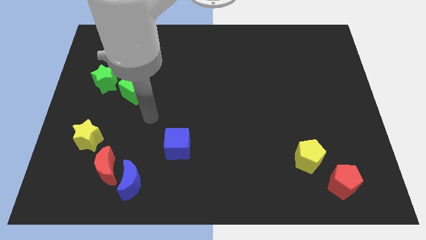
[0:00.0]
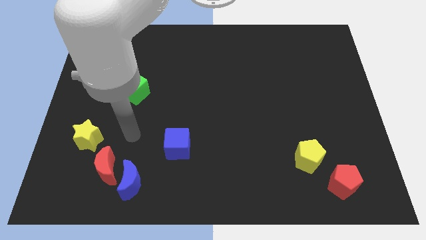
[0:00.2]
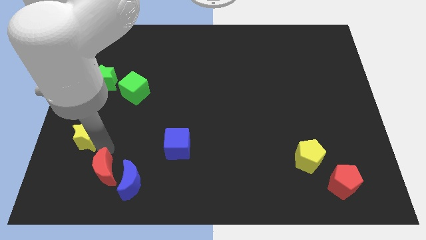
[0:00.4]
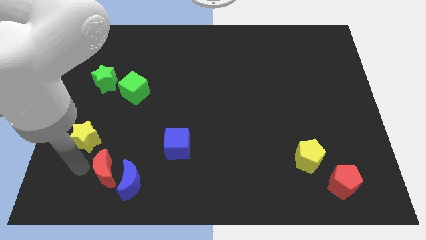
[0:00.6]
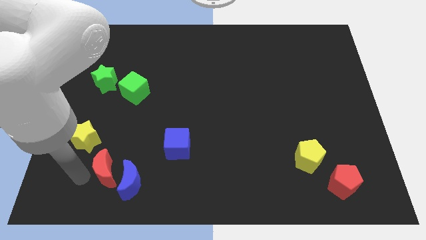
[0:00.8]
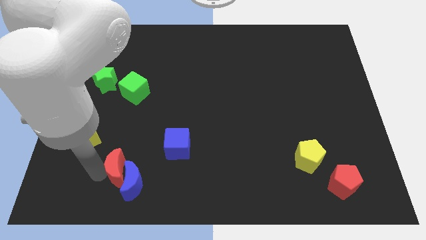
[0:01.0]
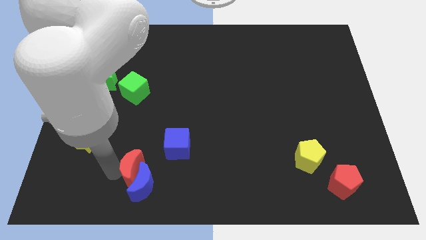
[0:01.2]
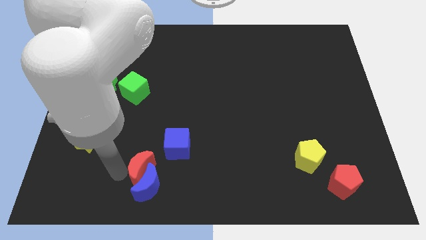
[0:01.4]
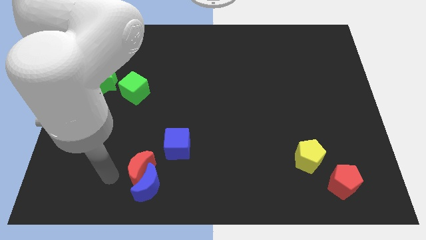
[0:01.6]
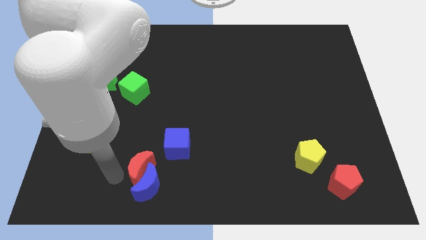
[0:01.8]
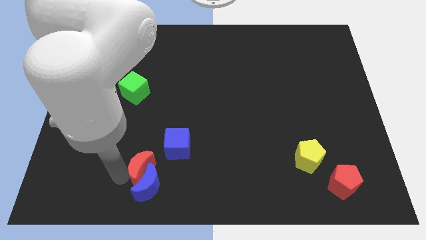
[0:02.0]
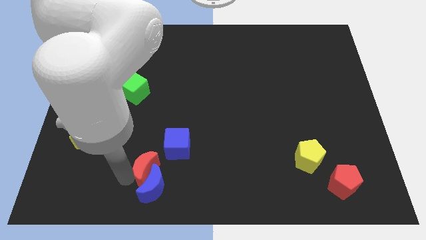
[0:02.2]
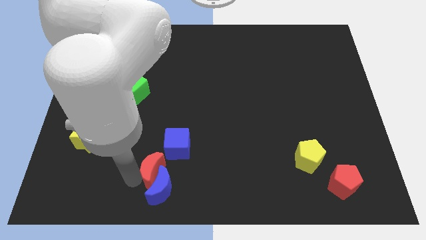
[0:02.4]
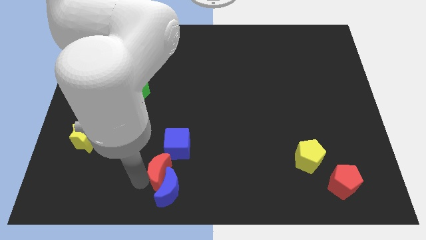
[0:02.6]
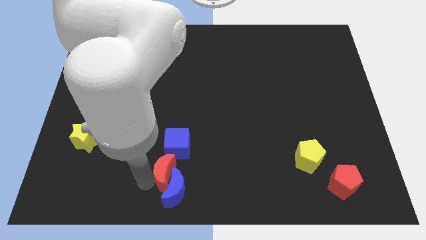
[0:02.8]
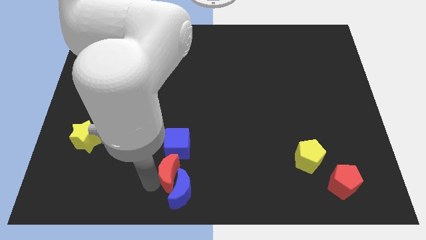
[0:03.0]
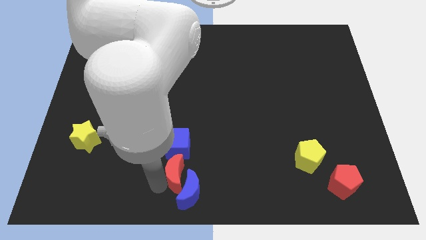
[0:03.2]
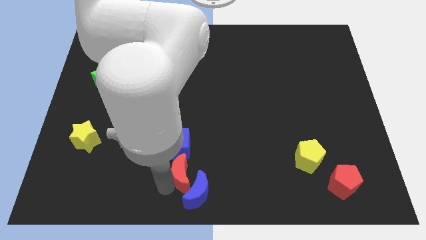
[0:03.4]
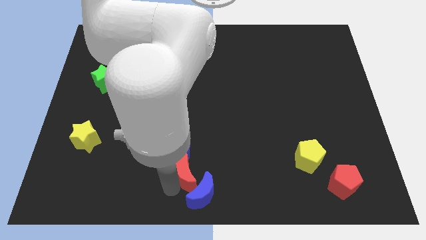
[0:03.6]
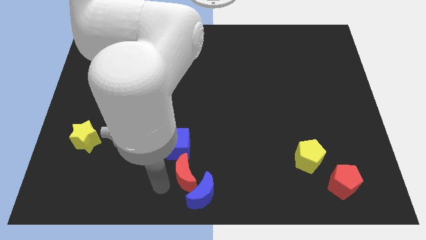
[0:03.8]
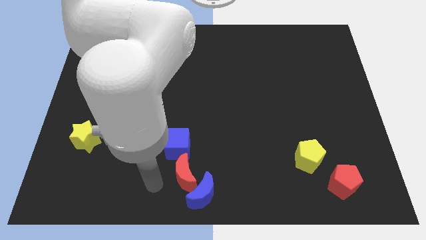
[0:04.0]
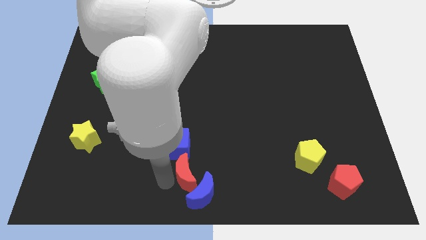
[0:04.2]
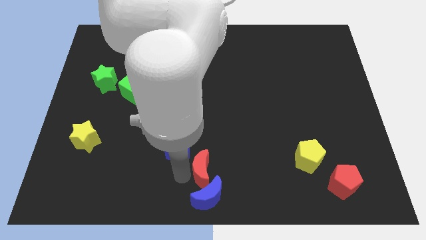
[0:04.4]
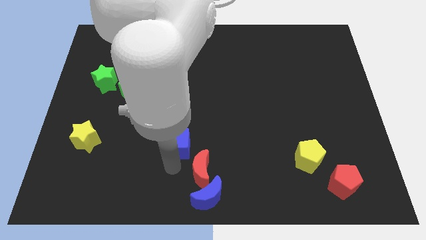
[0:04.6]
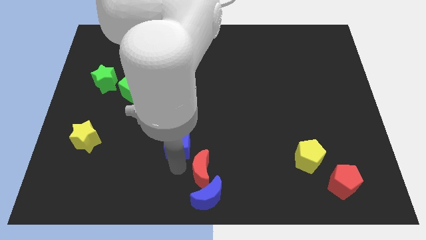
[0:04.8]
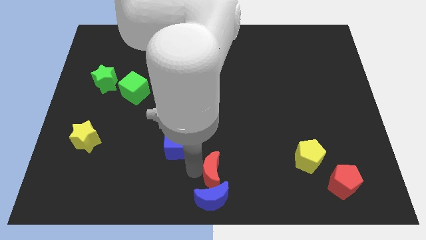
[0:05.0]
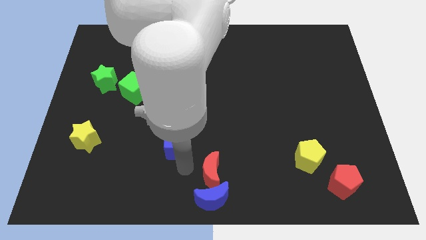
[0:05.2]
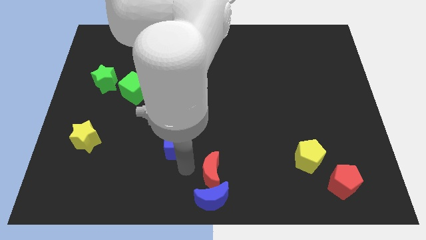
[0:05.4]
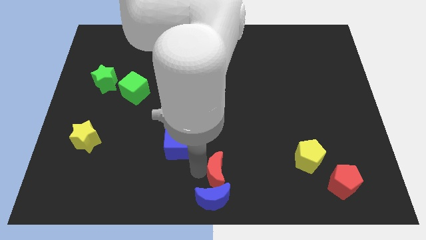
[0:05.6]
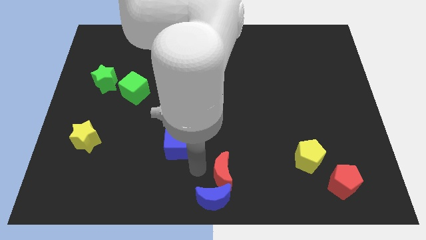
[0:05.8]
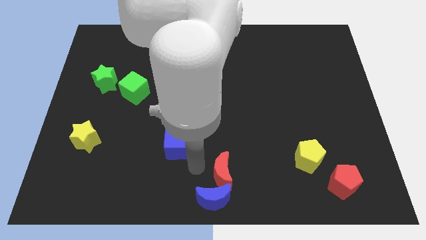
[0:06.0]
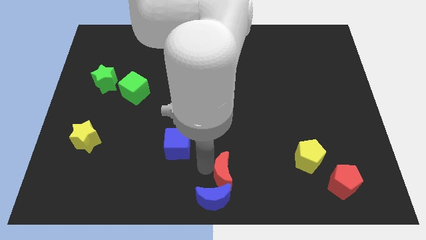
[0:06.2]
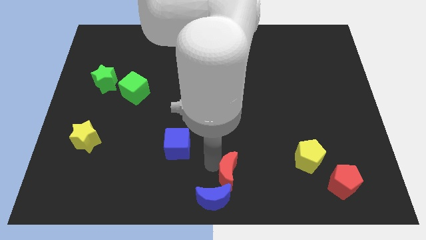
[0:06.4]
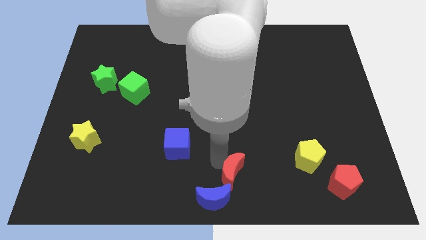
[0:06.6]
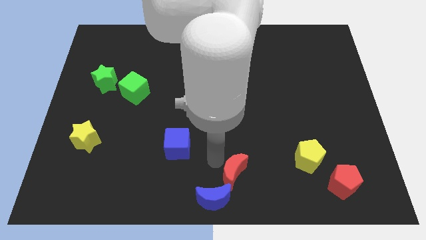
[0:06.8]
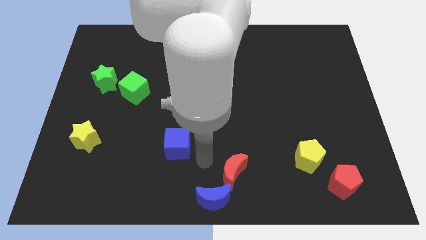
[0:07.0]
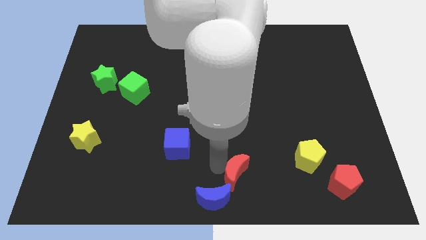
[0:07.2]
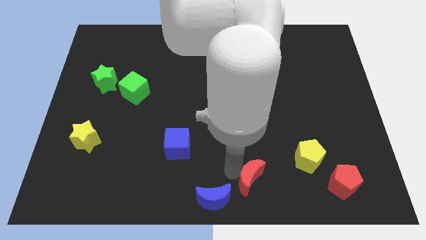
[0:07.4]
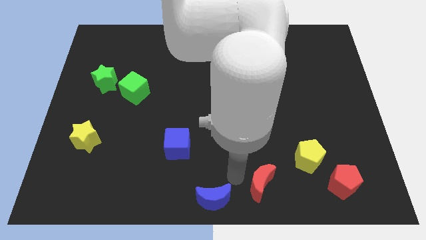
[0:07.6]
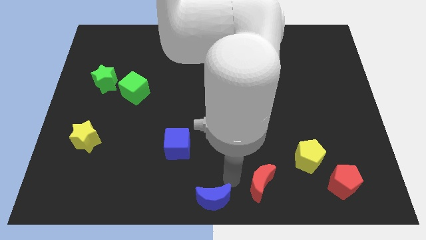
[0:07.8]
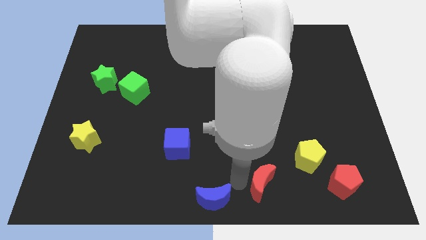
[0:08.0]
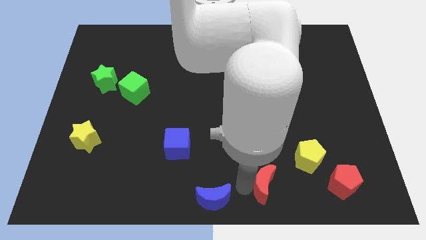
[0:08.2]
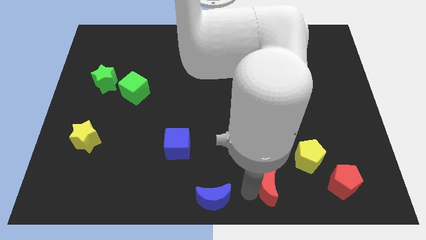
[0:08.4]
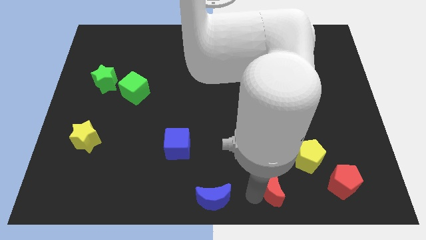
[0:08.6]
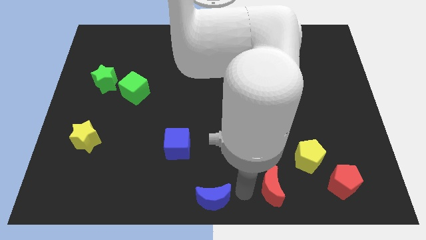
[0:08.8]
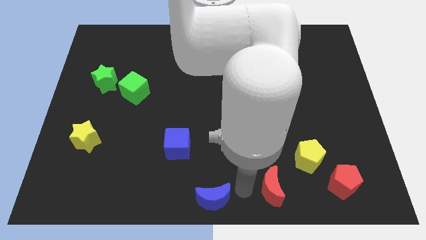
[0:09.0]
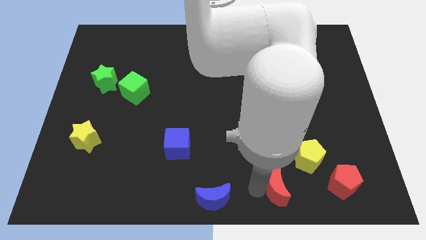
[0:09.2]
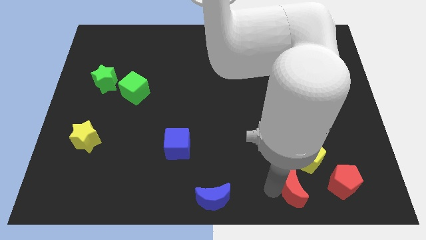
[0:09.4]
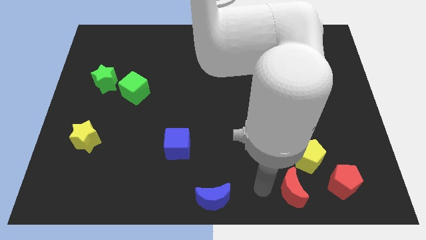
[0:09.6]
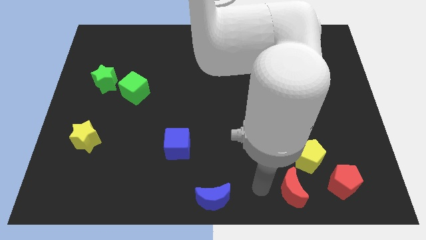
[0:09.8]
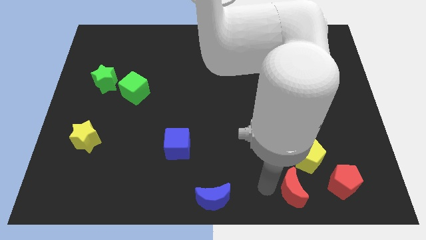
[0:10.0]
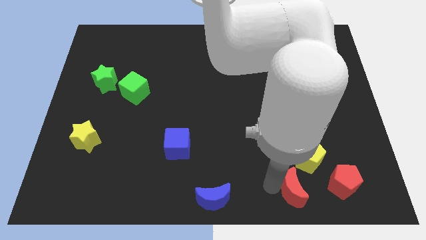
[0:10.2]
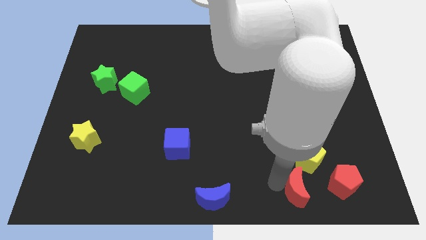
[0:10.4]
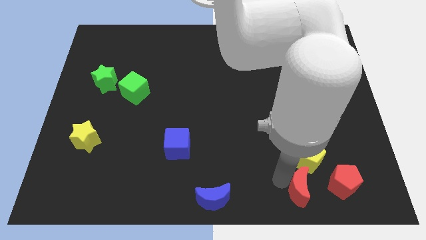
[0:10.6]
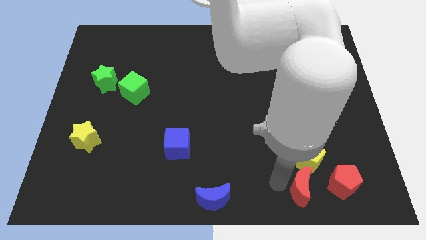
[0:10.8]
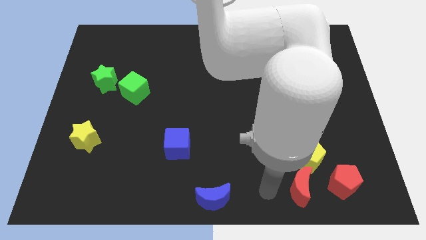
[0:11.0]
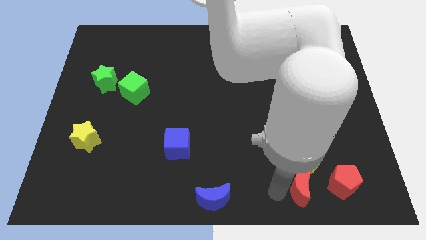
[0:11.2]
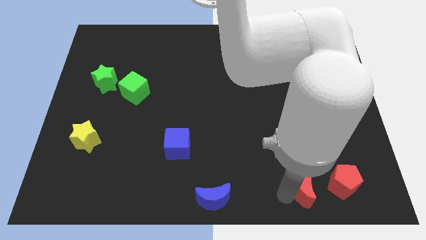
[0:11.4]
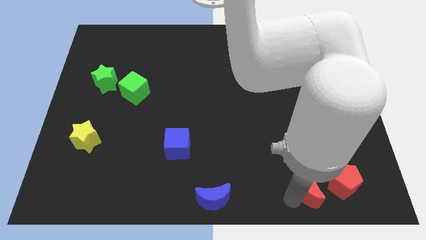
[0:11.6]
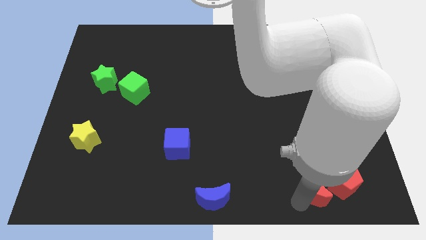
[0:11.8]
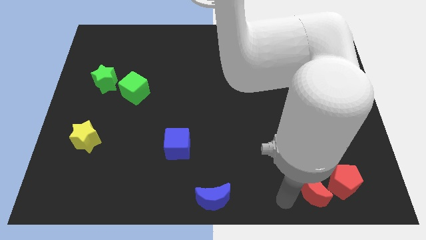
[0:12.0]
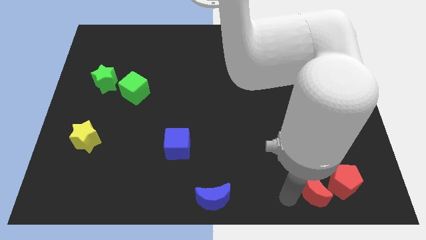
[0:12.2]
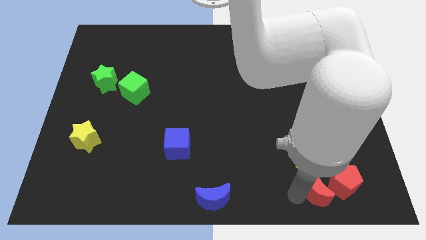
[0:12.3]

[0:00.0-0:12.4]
put the red moon next to the red pentagon

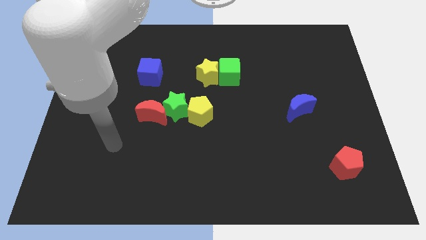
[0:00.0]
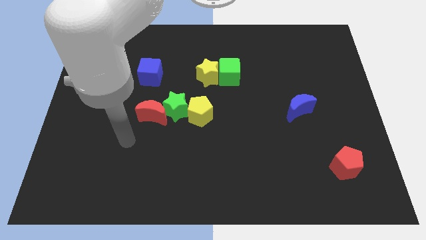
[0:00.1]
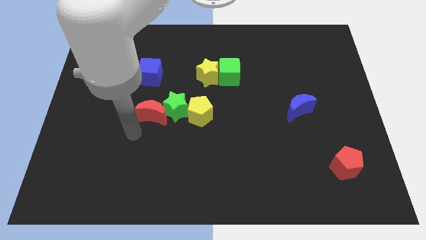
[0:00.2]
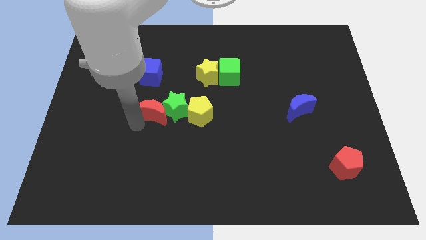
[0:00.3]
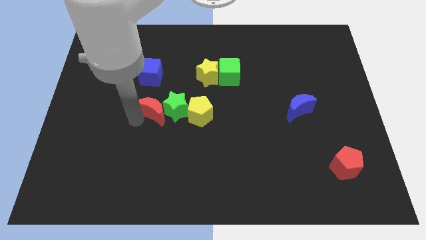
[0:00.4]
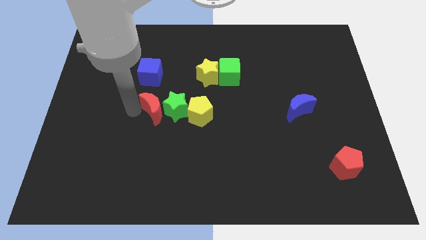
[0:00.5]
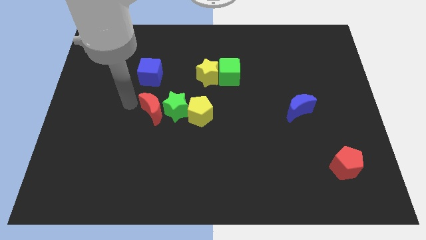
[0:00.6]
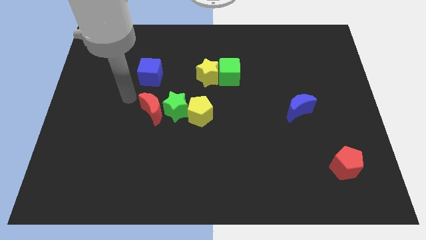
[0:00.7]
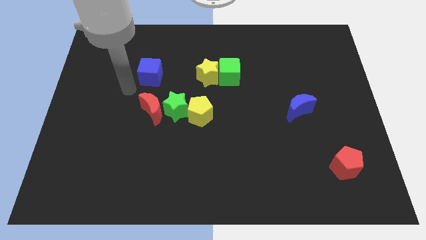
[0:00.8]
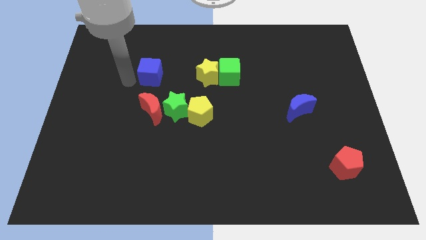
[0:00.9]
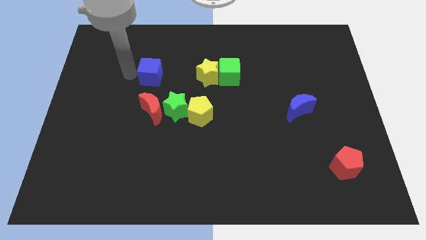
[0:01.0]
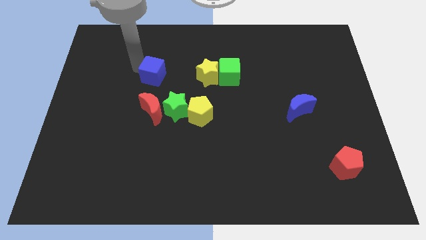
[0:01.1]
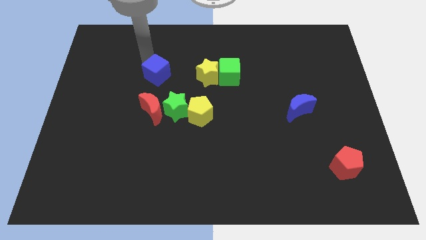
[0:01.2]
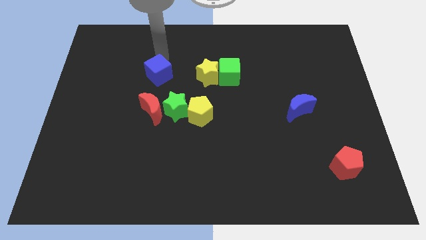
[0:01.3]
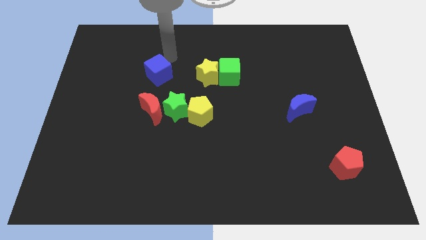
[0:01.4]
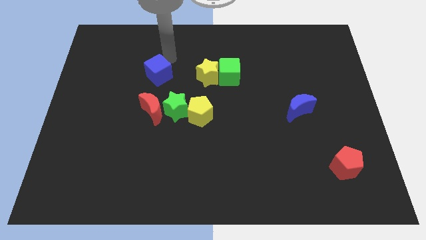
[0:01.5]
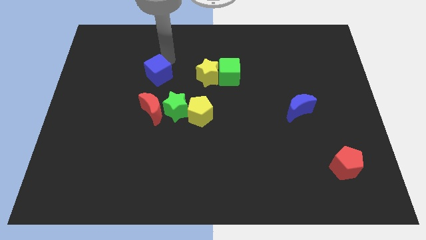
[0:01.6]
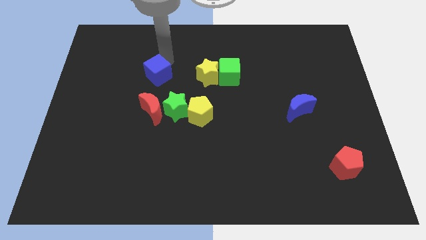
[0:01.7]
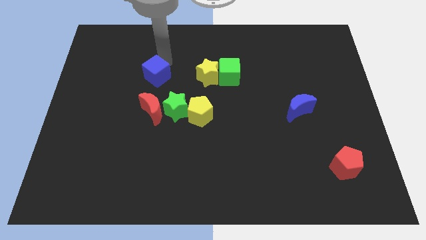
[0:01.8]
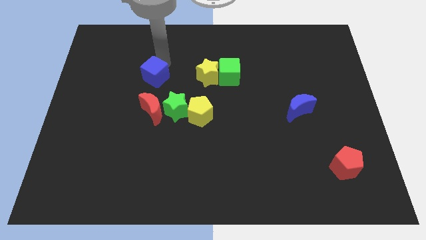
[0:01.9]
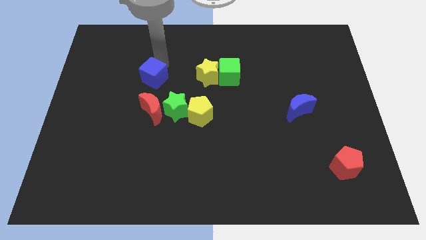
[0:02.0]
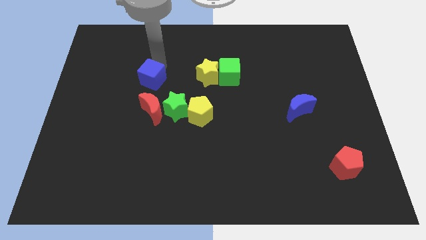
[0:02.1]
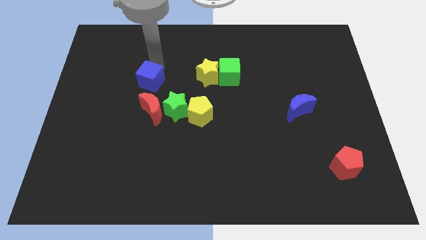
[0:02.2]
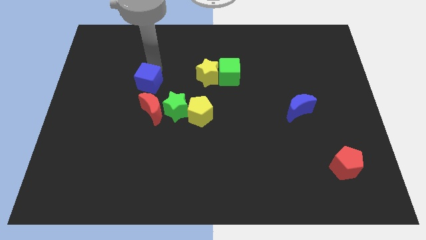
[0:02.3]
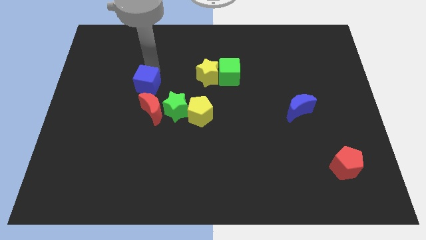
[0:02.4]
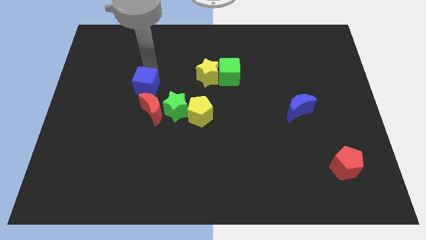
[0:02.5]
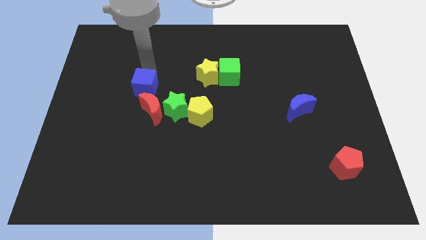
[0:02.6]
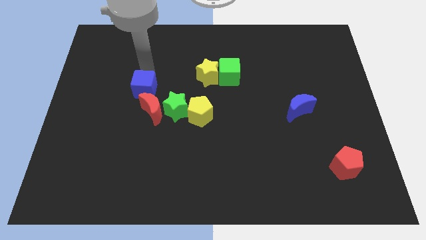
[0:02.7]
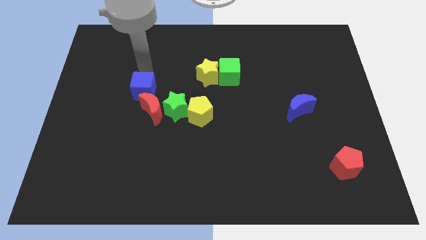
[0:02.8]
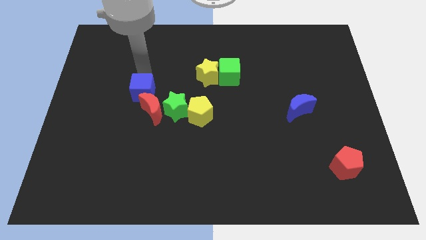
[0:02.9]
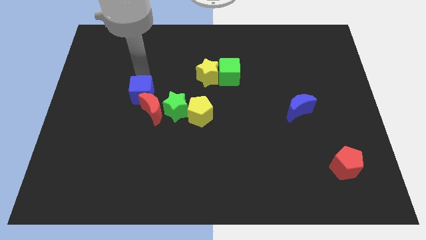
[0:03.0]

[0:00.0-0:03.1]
slide the blue cube next to the red moon
